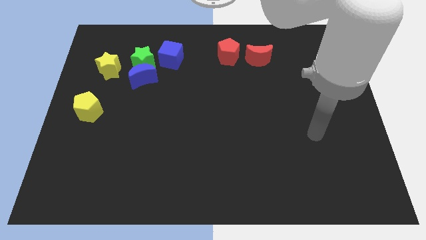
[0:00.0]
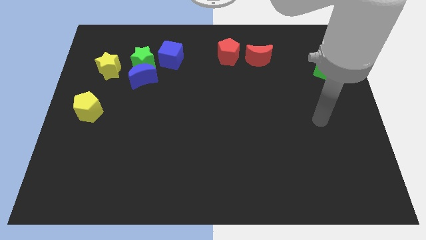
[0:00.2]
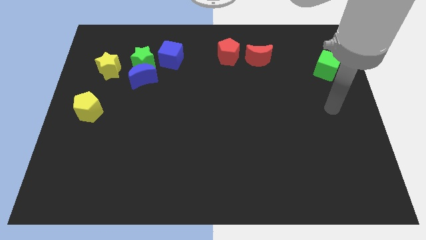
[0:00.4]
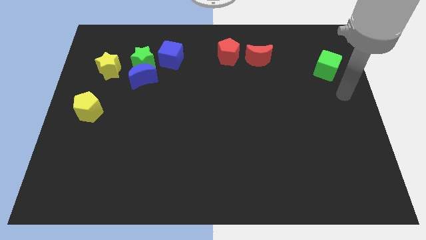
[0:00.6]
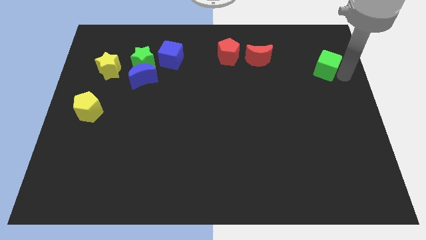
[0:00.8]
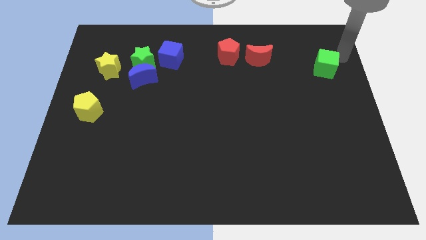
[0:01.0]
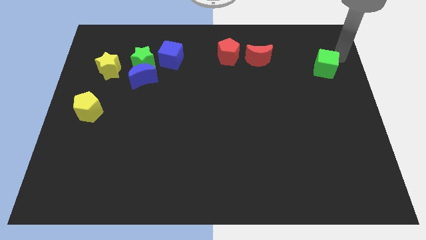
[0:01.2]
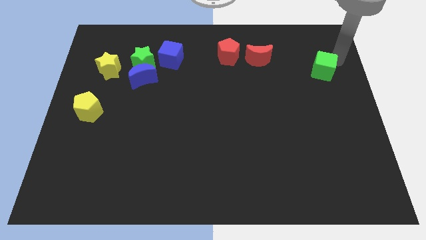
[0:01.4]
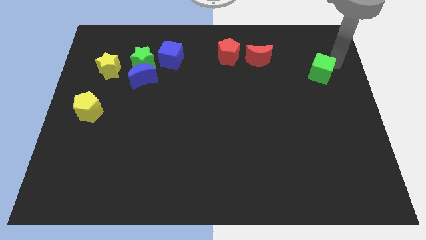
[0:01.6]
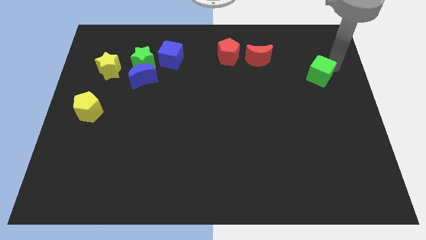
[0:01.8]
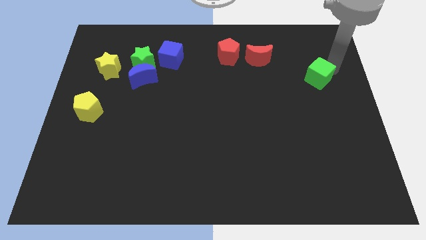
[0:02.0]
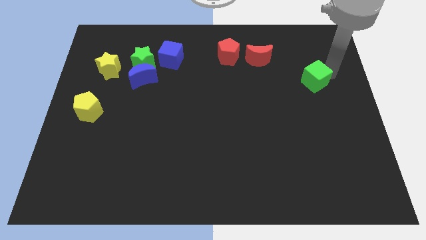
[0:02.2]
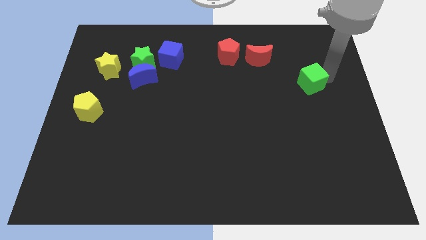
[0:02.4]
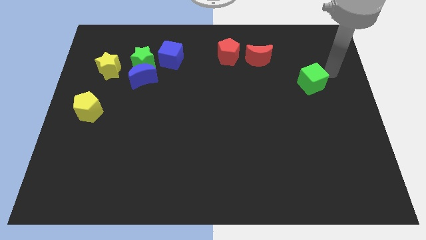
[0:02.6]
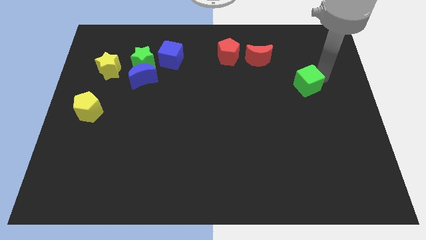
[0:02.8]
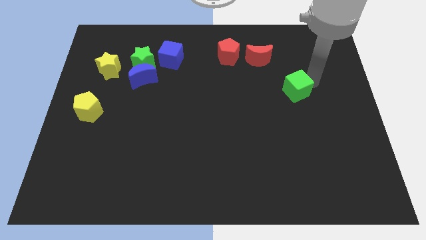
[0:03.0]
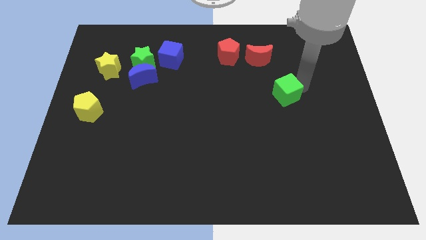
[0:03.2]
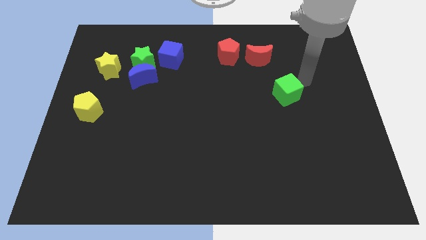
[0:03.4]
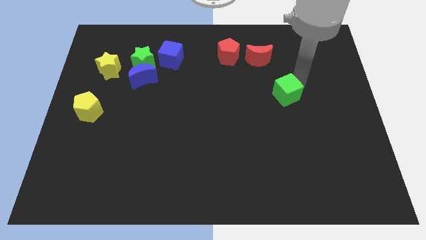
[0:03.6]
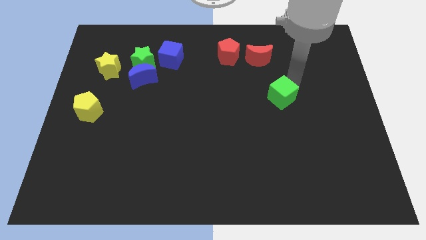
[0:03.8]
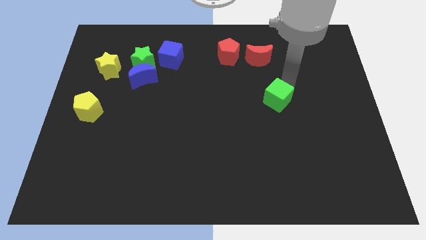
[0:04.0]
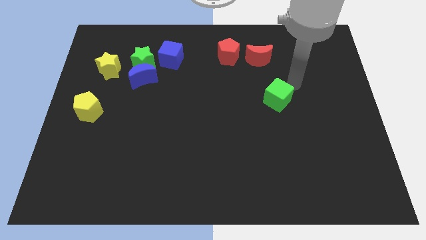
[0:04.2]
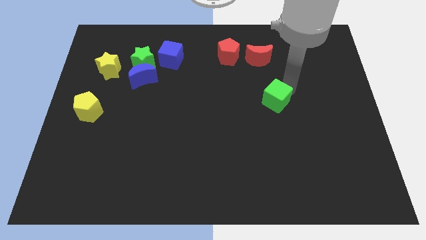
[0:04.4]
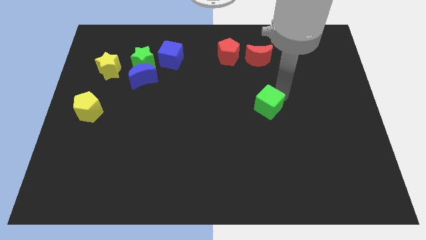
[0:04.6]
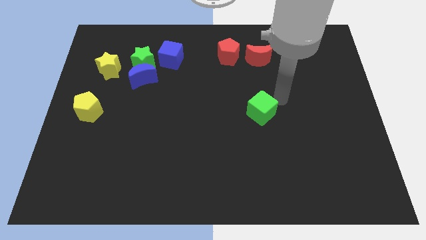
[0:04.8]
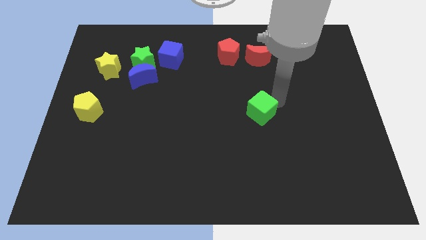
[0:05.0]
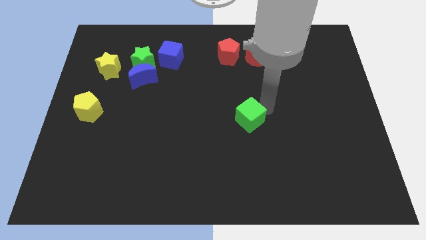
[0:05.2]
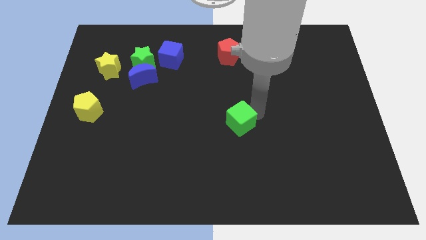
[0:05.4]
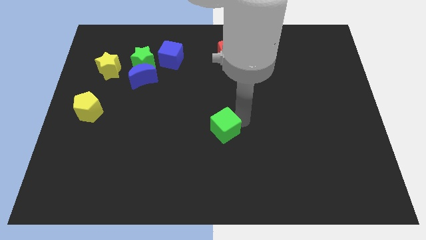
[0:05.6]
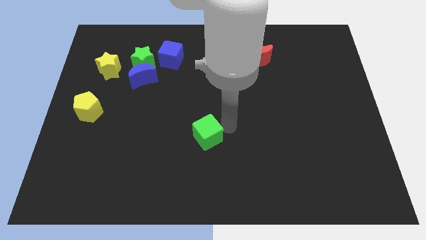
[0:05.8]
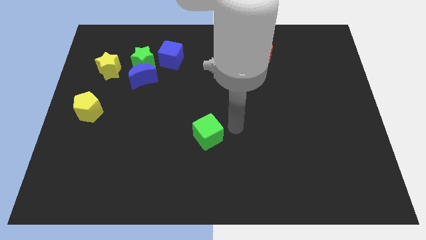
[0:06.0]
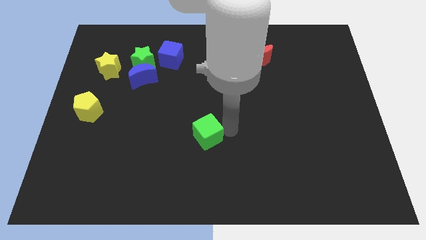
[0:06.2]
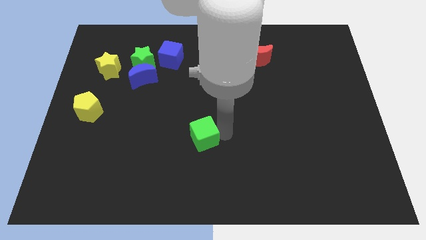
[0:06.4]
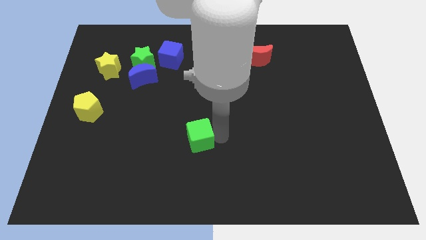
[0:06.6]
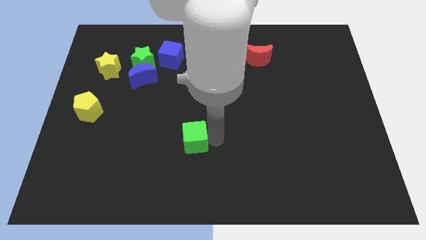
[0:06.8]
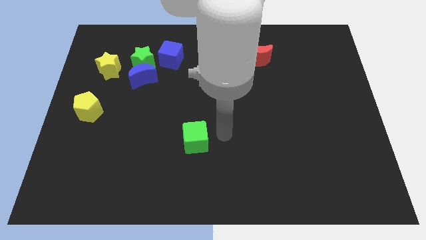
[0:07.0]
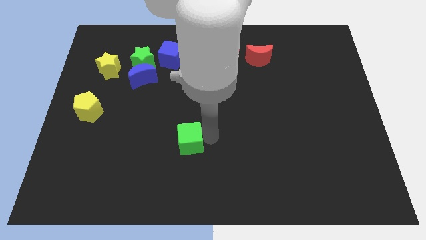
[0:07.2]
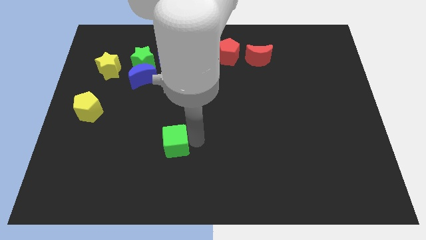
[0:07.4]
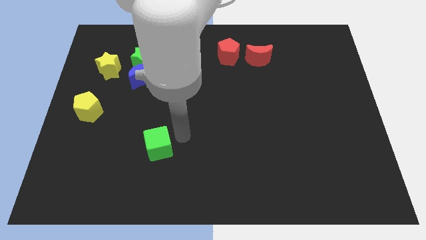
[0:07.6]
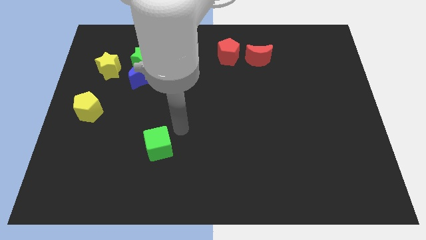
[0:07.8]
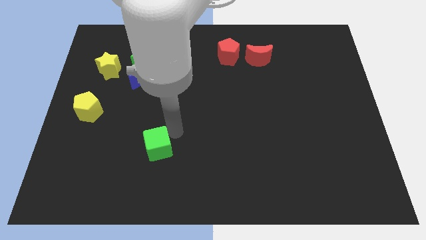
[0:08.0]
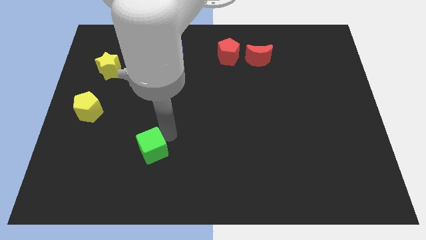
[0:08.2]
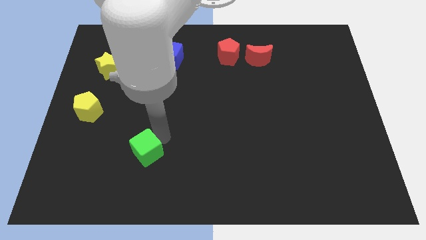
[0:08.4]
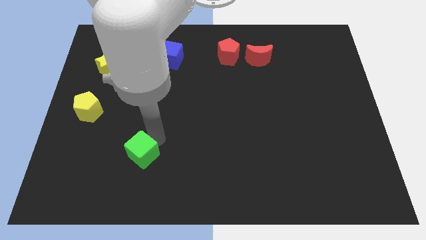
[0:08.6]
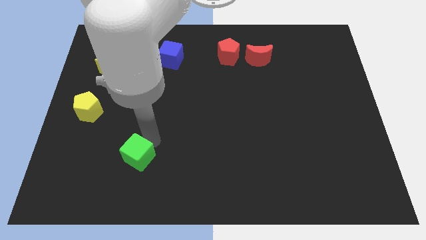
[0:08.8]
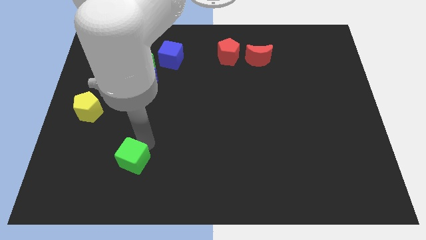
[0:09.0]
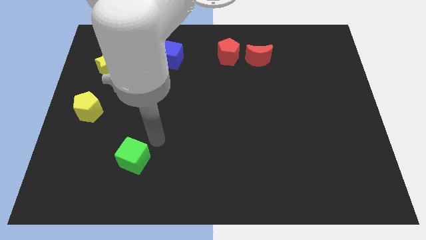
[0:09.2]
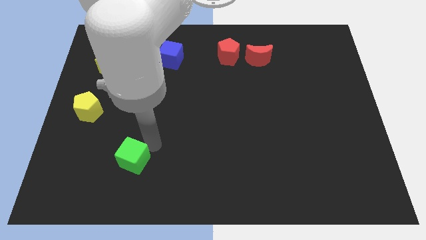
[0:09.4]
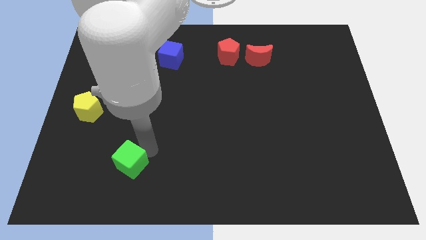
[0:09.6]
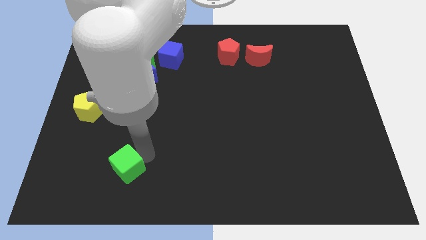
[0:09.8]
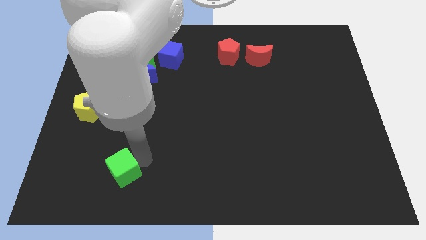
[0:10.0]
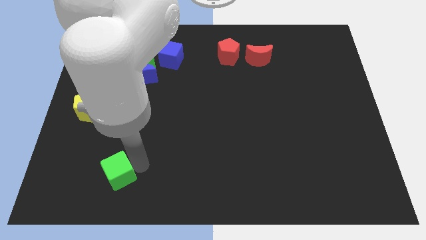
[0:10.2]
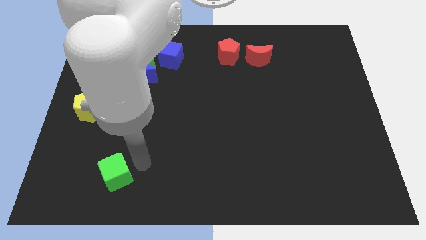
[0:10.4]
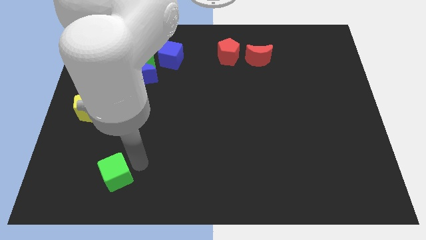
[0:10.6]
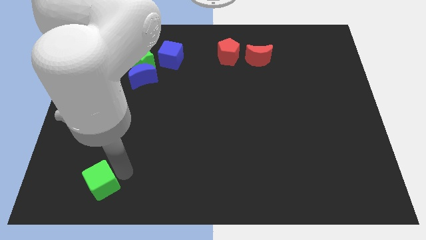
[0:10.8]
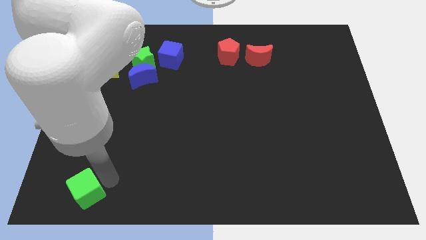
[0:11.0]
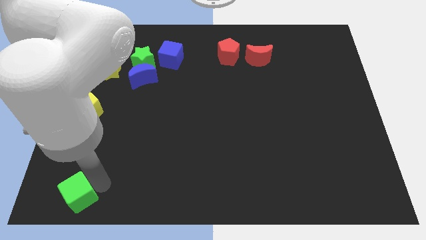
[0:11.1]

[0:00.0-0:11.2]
put the green cube to the bottom left

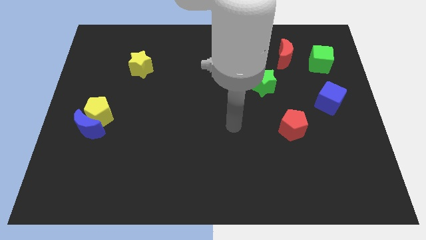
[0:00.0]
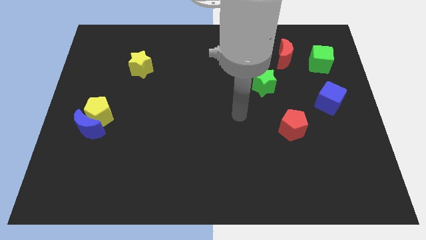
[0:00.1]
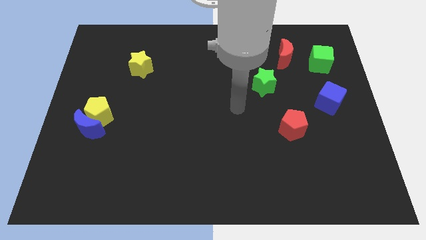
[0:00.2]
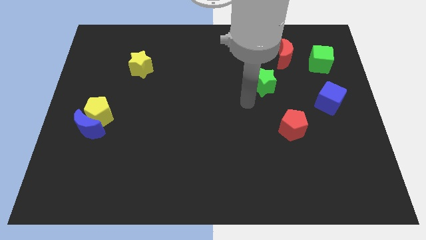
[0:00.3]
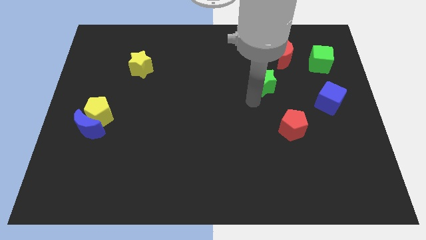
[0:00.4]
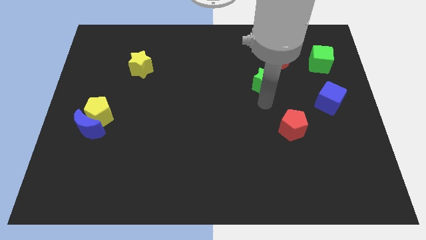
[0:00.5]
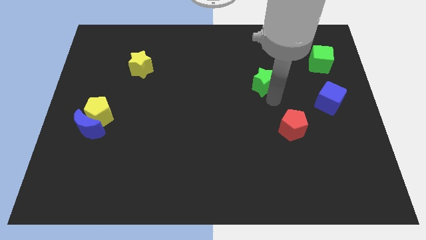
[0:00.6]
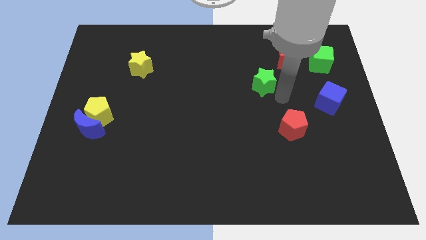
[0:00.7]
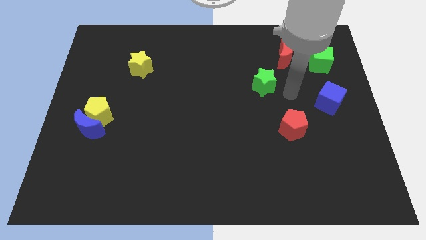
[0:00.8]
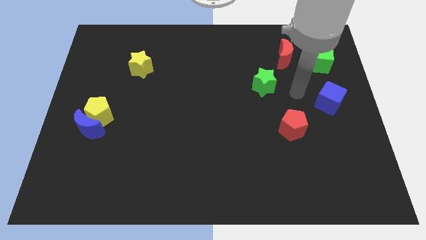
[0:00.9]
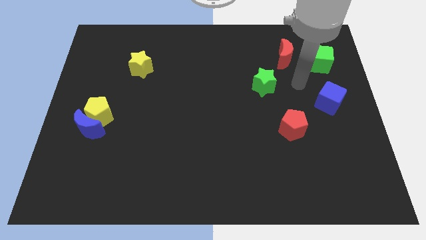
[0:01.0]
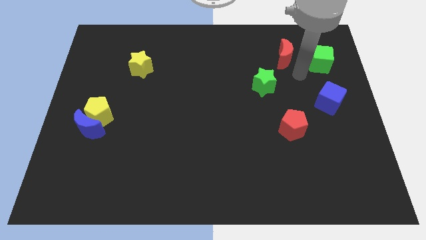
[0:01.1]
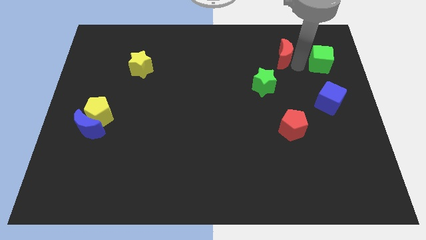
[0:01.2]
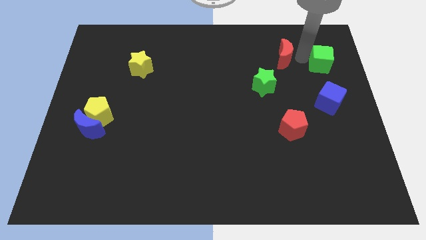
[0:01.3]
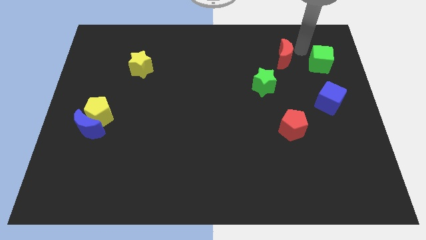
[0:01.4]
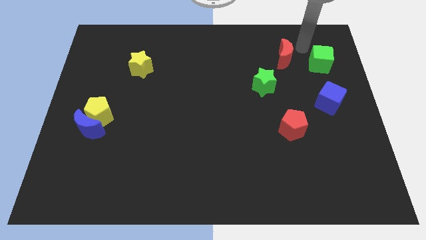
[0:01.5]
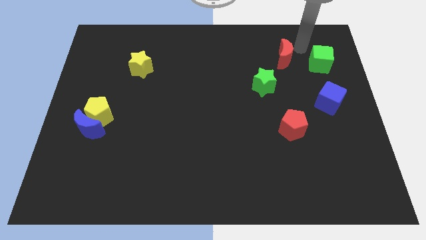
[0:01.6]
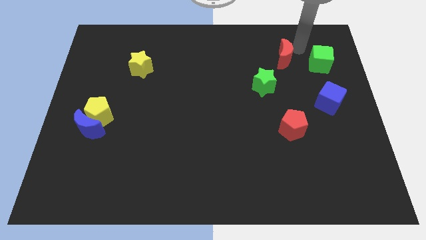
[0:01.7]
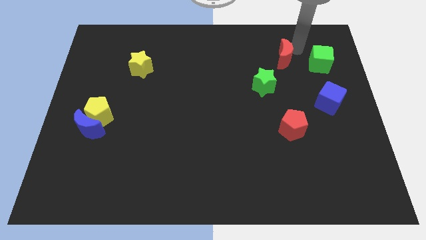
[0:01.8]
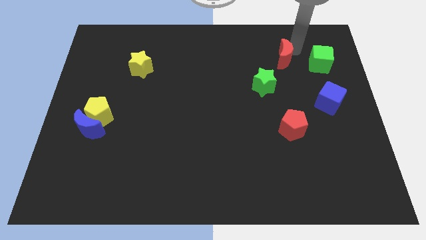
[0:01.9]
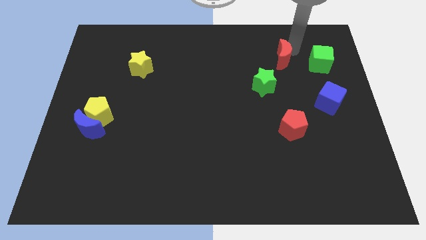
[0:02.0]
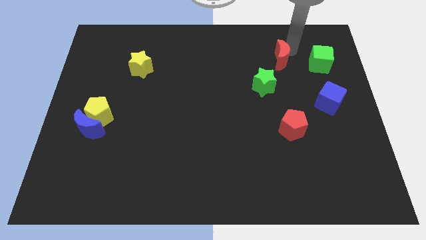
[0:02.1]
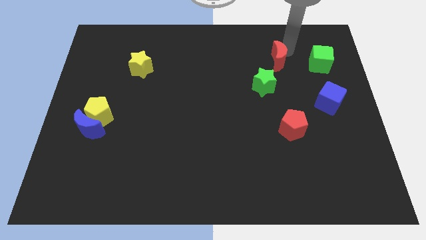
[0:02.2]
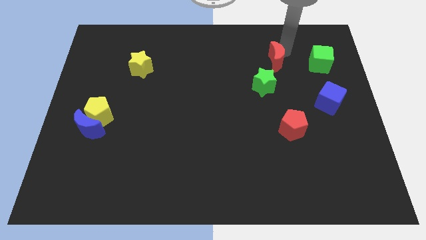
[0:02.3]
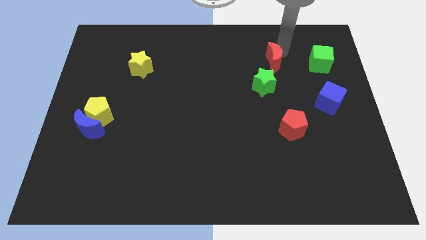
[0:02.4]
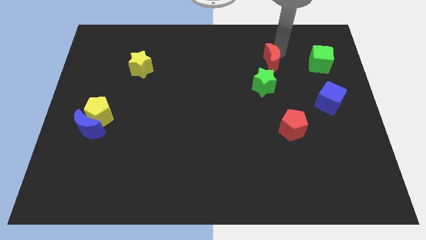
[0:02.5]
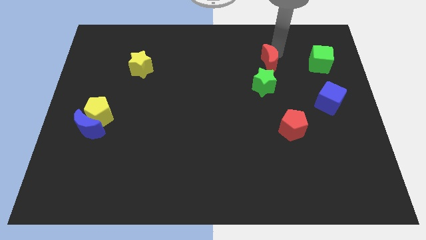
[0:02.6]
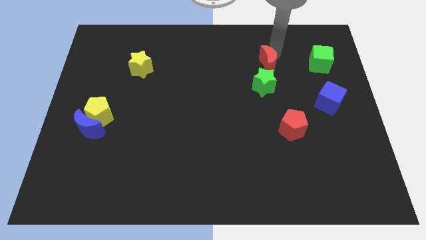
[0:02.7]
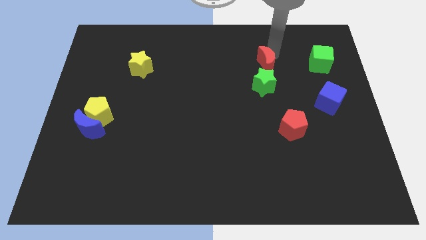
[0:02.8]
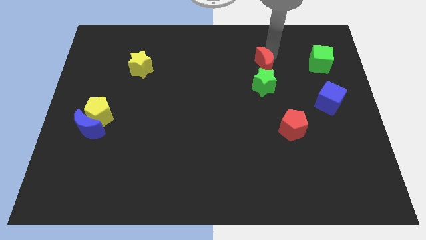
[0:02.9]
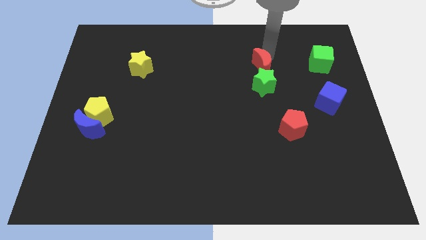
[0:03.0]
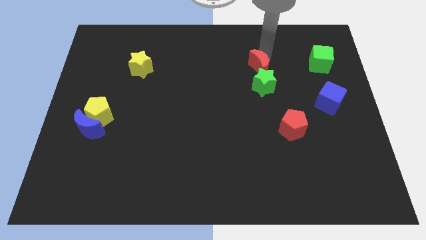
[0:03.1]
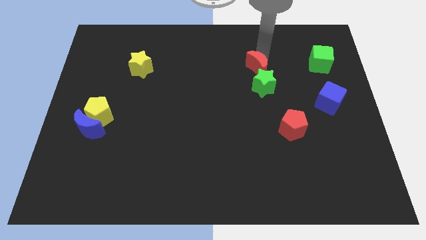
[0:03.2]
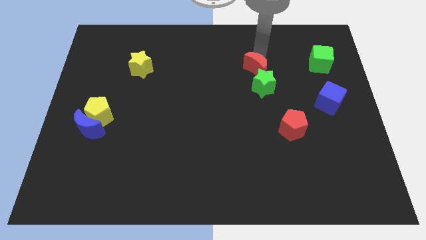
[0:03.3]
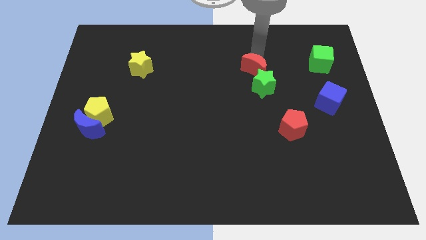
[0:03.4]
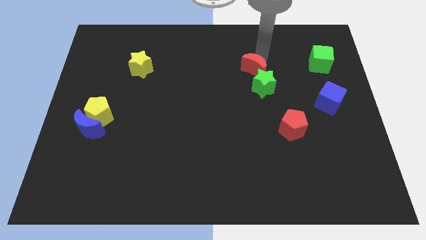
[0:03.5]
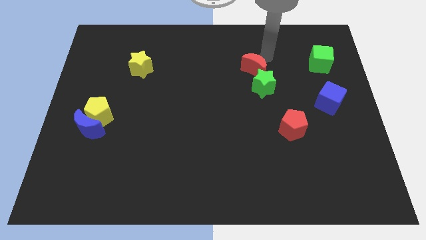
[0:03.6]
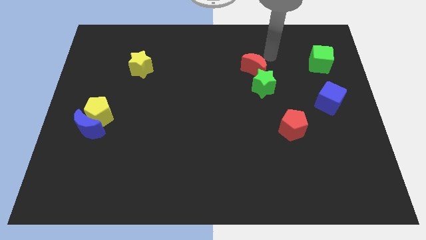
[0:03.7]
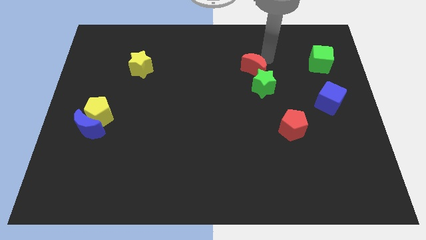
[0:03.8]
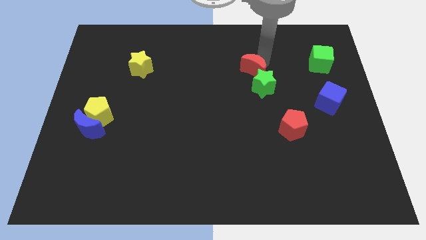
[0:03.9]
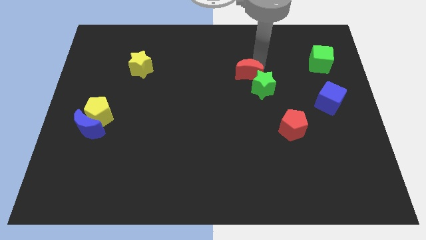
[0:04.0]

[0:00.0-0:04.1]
move the red moon to the middle
